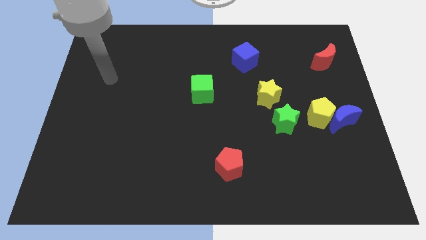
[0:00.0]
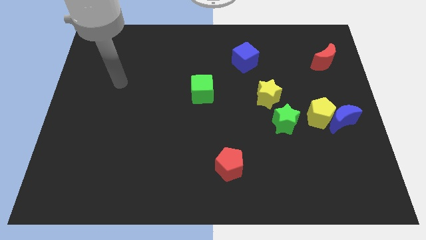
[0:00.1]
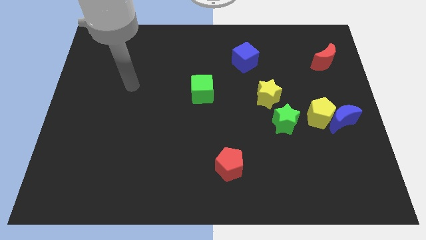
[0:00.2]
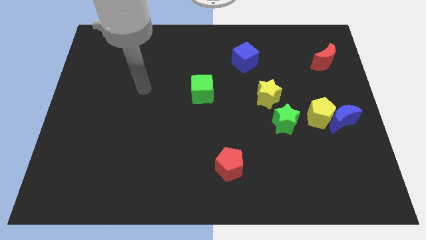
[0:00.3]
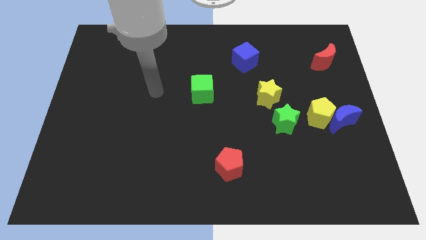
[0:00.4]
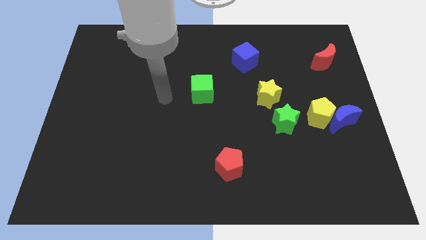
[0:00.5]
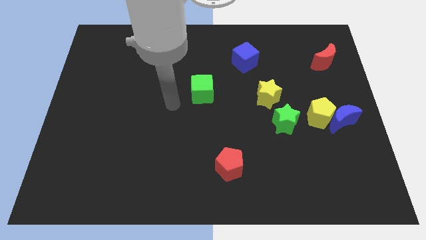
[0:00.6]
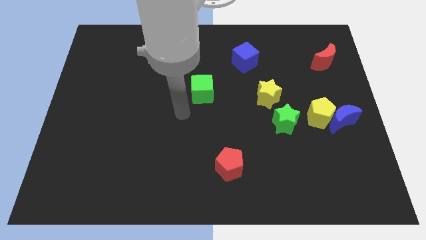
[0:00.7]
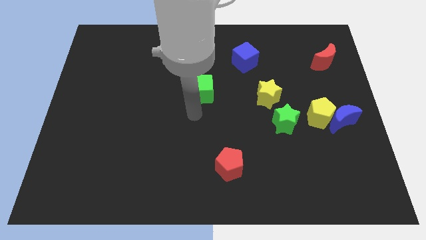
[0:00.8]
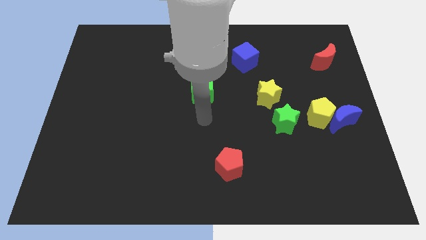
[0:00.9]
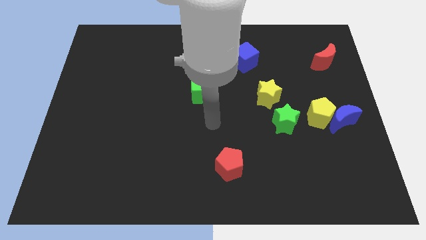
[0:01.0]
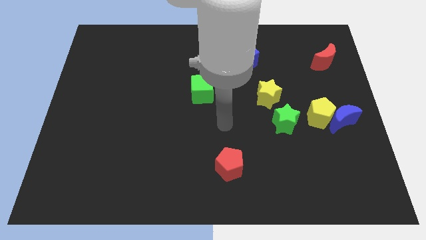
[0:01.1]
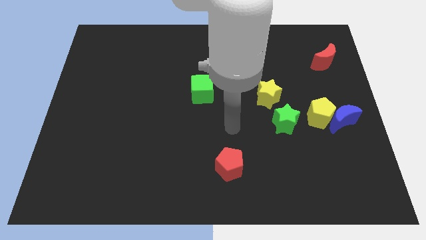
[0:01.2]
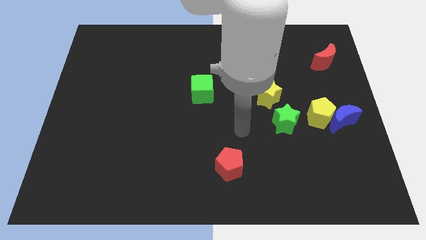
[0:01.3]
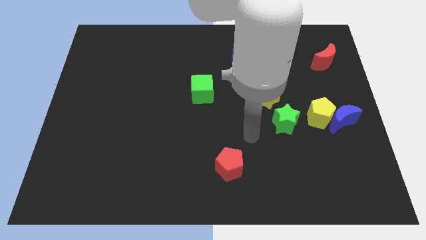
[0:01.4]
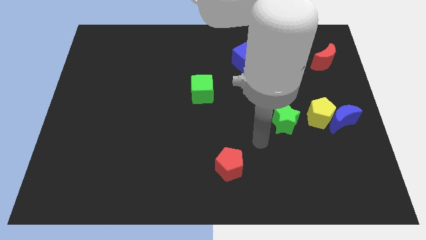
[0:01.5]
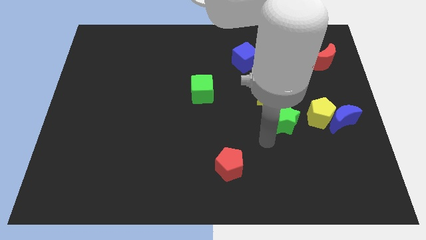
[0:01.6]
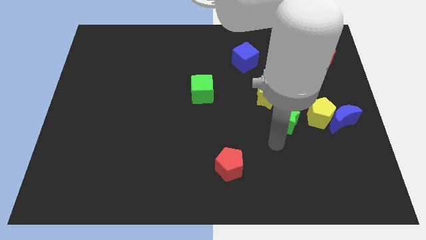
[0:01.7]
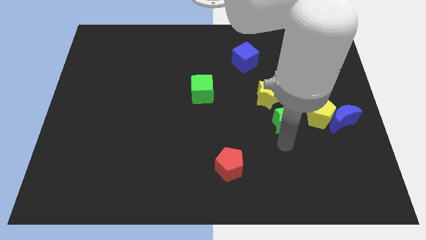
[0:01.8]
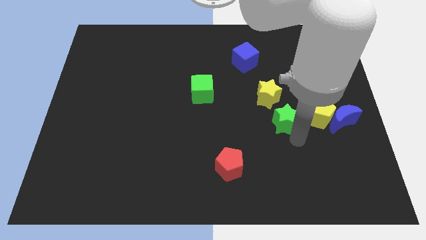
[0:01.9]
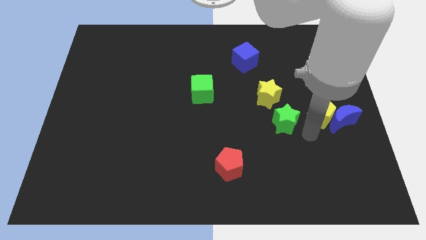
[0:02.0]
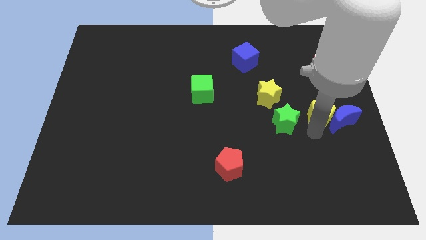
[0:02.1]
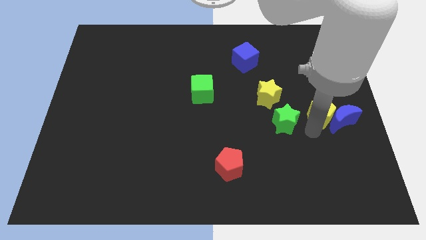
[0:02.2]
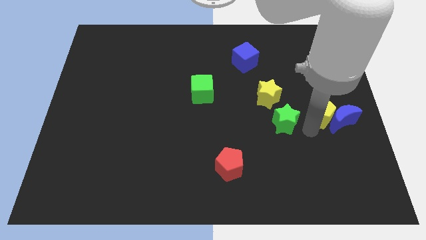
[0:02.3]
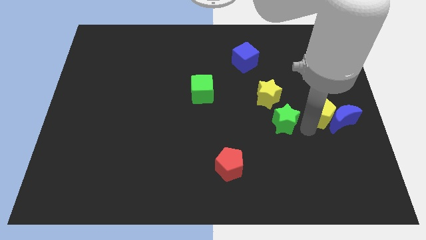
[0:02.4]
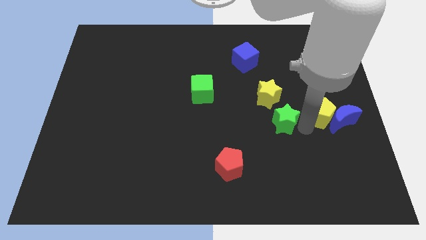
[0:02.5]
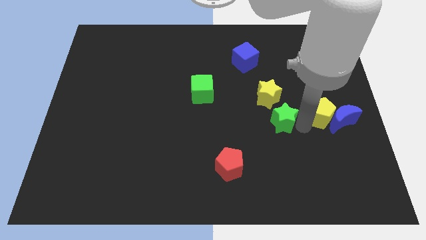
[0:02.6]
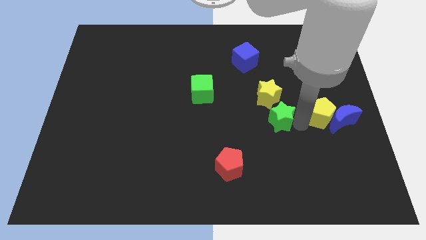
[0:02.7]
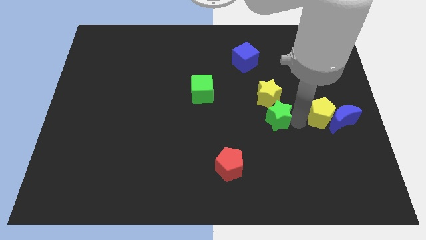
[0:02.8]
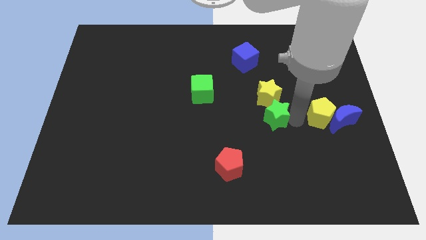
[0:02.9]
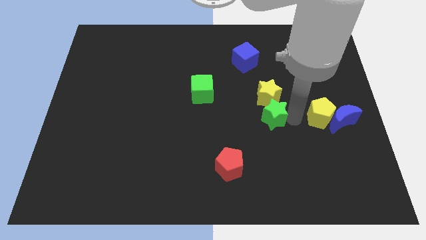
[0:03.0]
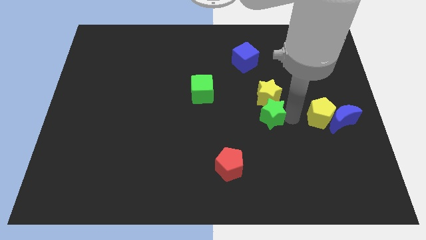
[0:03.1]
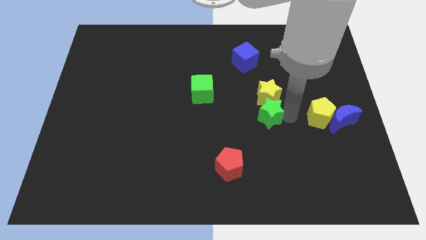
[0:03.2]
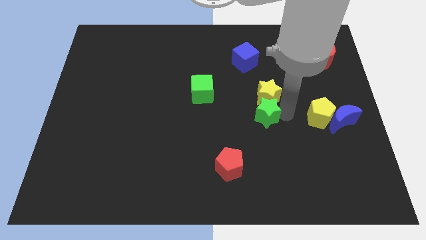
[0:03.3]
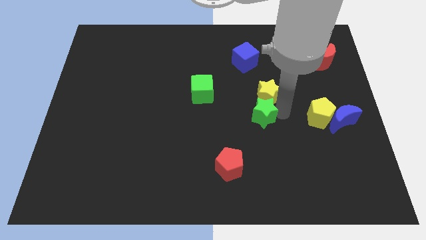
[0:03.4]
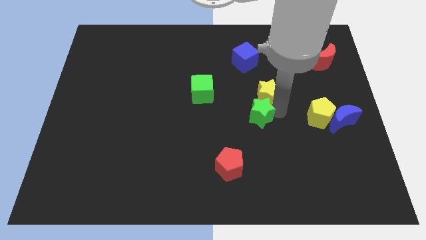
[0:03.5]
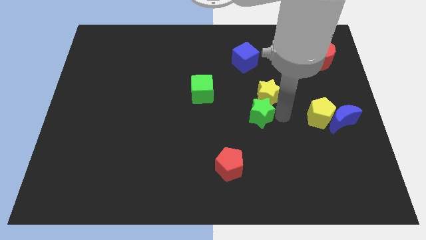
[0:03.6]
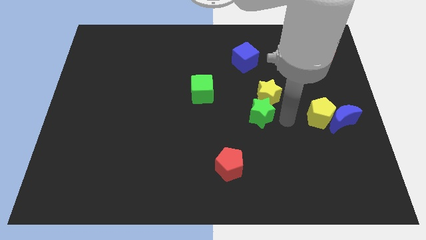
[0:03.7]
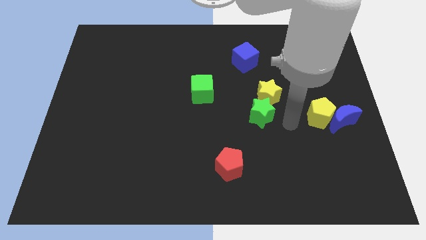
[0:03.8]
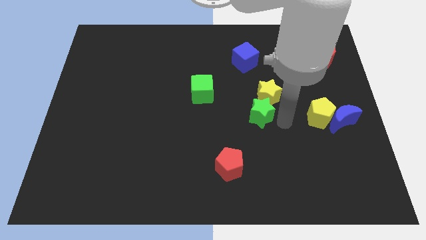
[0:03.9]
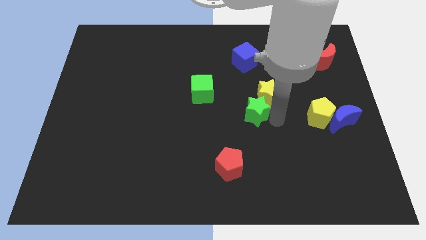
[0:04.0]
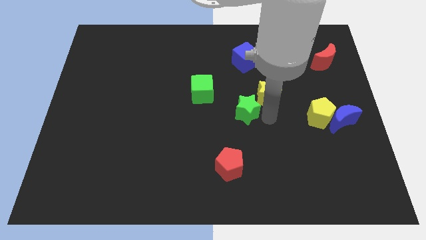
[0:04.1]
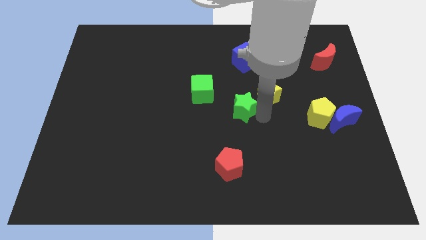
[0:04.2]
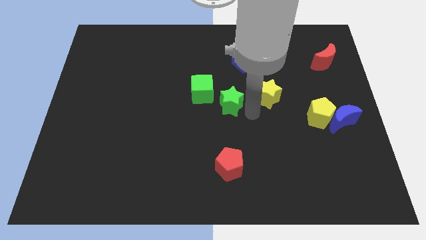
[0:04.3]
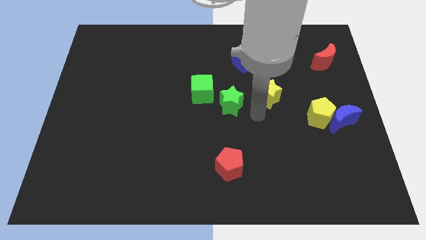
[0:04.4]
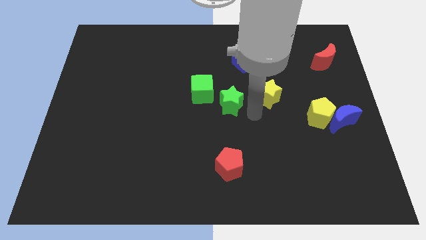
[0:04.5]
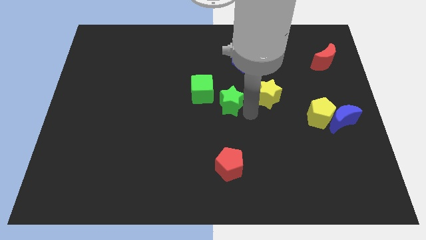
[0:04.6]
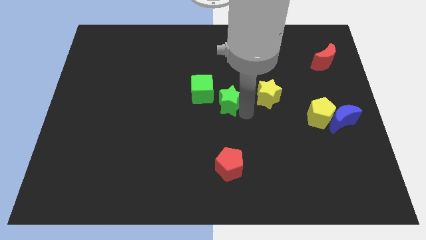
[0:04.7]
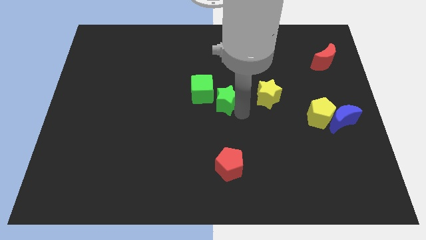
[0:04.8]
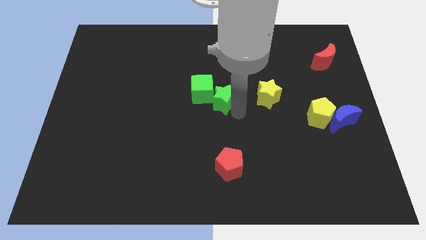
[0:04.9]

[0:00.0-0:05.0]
move the green star towards the green cube

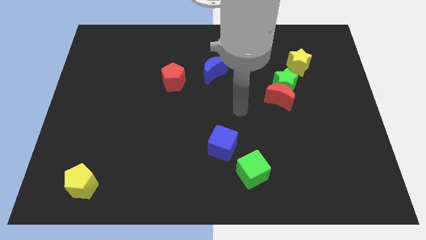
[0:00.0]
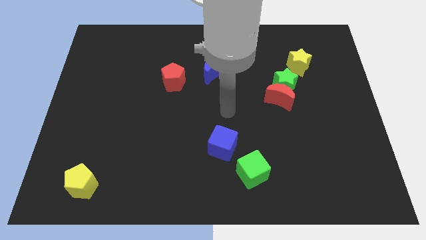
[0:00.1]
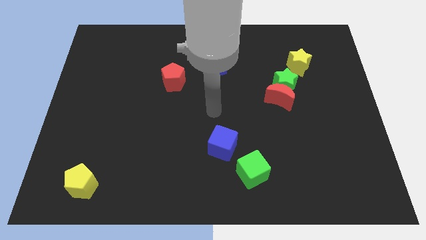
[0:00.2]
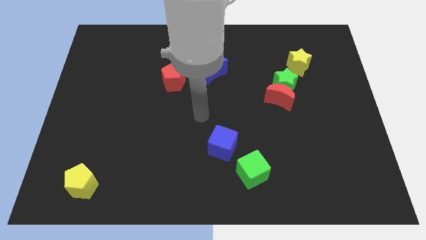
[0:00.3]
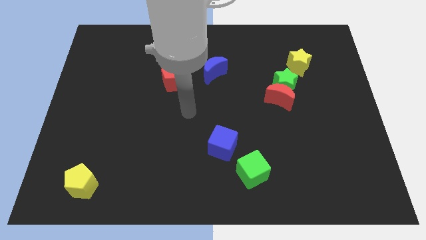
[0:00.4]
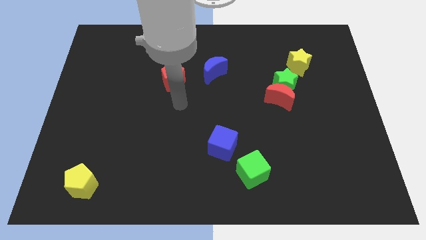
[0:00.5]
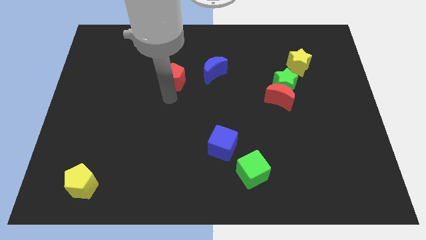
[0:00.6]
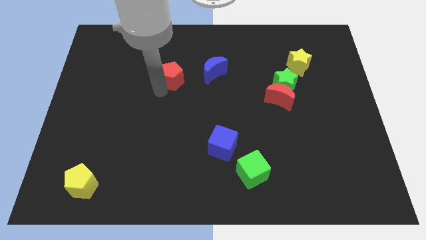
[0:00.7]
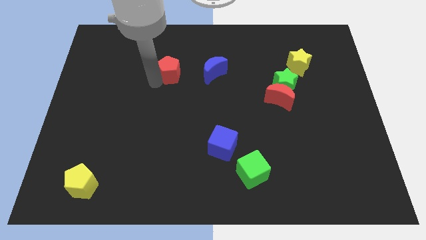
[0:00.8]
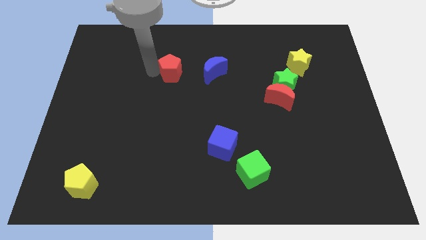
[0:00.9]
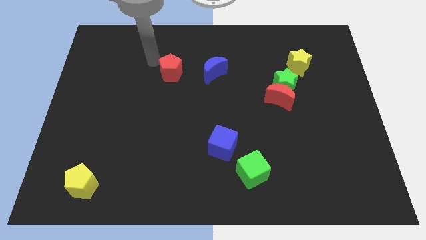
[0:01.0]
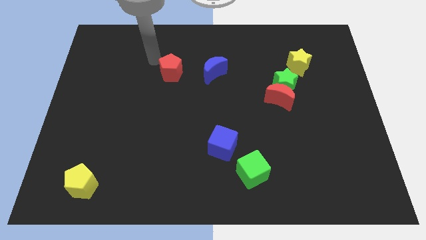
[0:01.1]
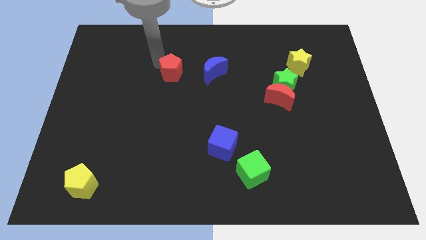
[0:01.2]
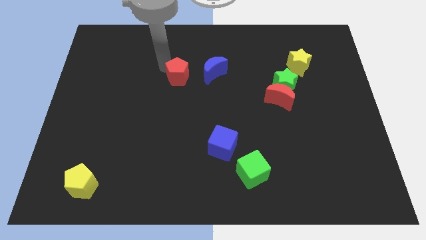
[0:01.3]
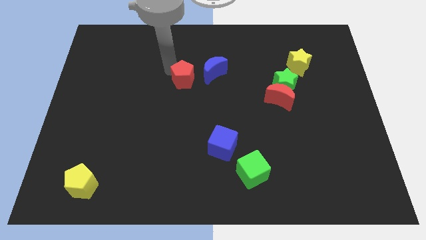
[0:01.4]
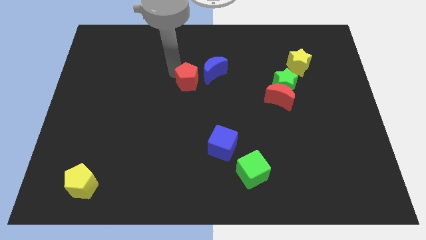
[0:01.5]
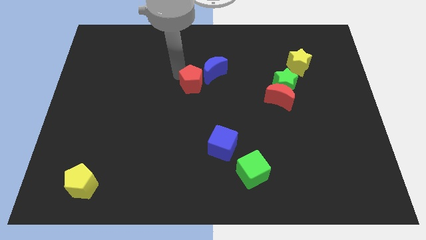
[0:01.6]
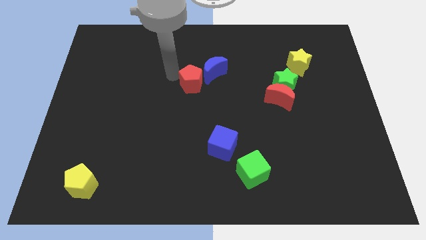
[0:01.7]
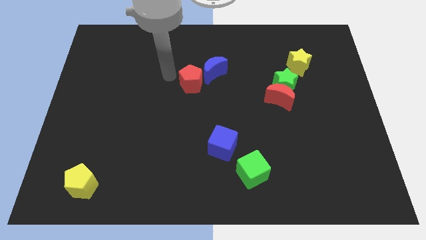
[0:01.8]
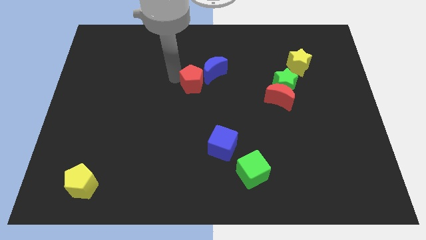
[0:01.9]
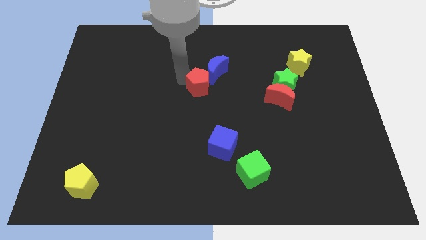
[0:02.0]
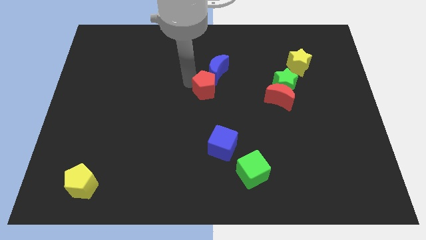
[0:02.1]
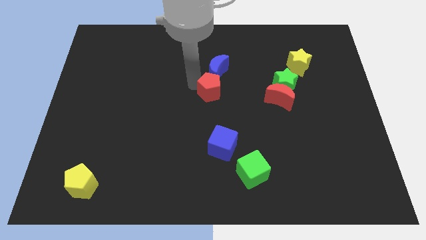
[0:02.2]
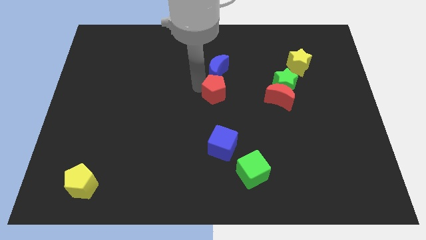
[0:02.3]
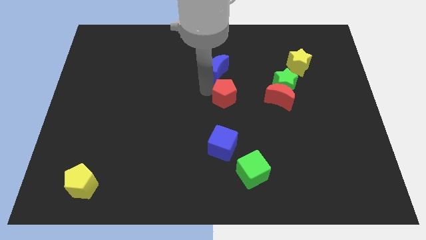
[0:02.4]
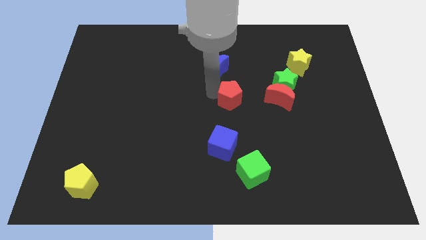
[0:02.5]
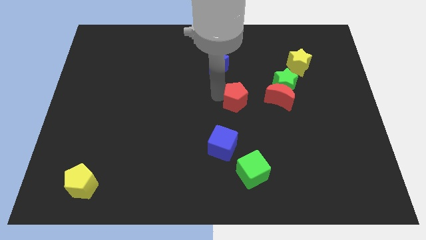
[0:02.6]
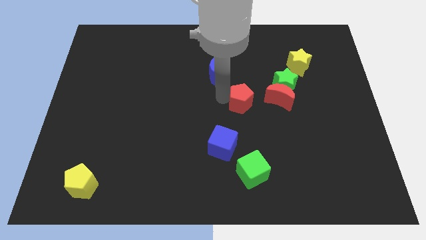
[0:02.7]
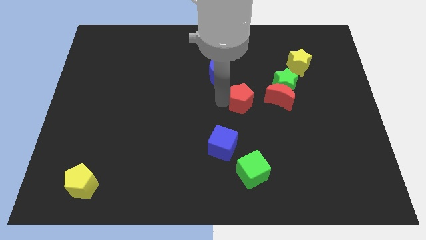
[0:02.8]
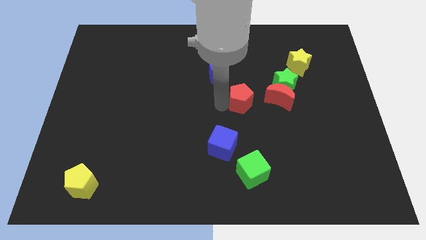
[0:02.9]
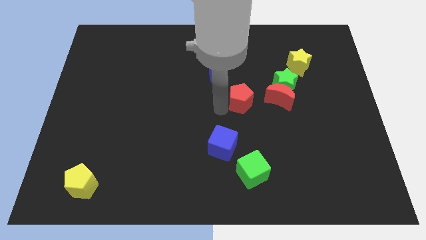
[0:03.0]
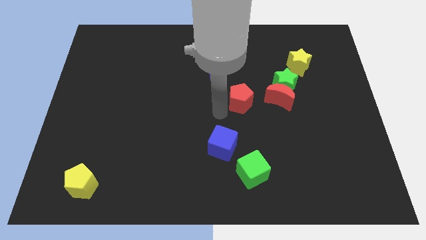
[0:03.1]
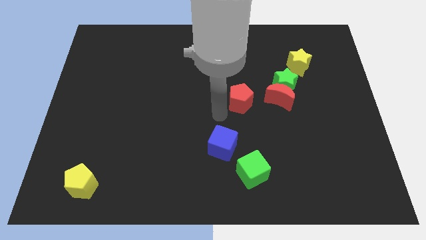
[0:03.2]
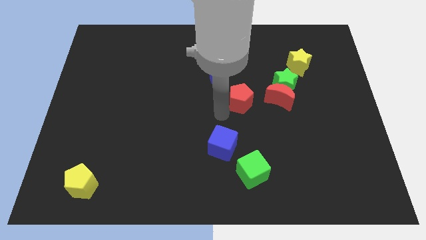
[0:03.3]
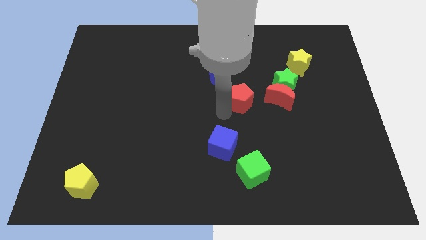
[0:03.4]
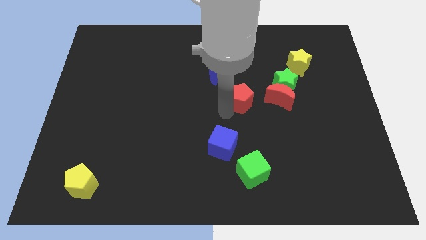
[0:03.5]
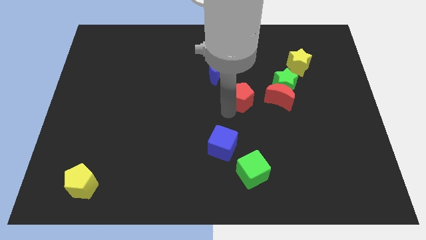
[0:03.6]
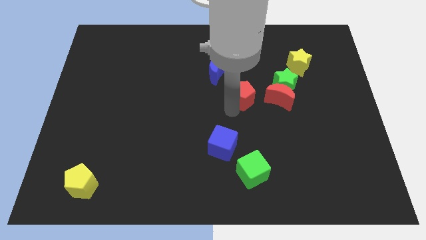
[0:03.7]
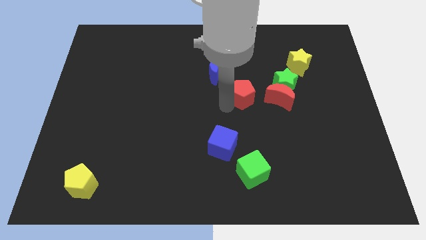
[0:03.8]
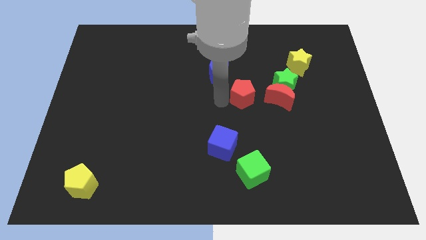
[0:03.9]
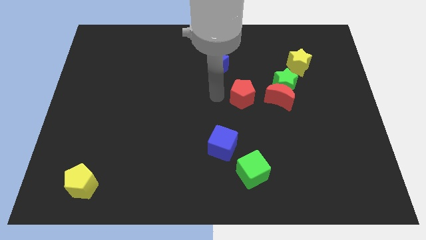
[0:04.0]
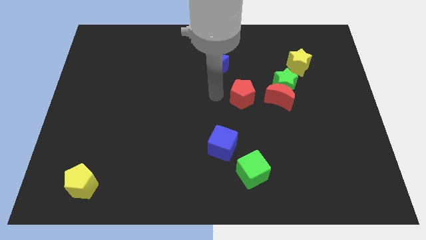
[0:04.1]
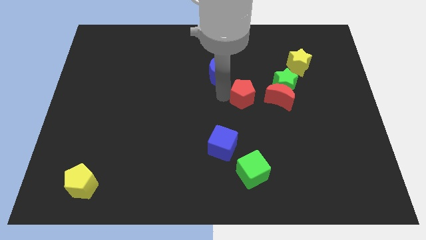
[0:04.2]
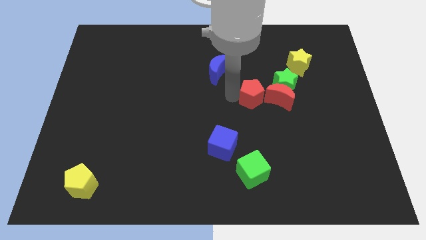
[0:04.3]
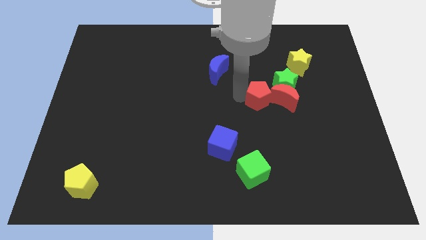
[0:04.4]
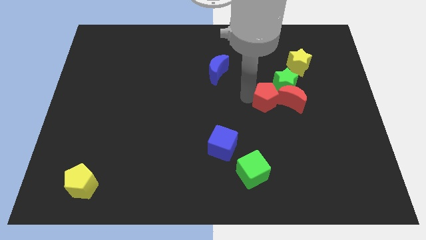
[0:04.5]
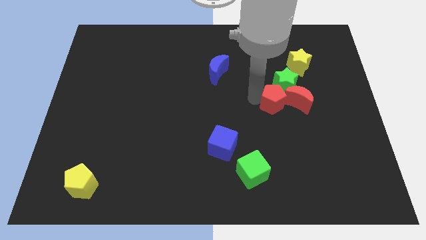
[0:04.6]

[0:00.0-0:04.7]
slide the red pentagon next to the red moon
